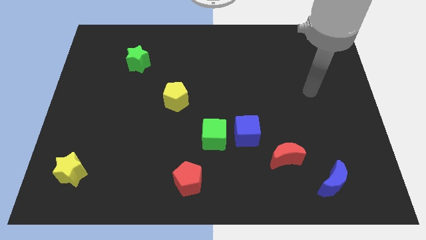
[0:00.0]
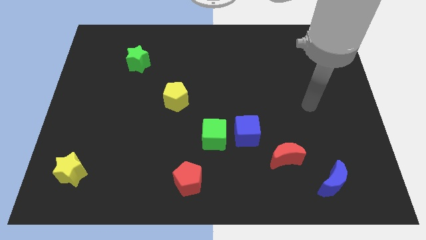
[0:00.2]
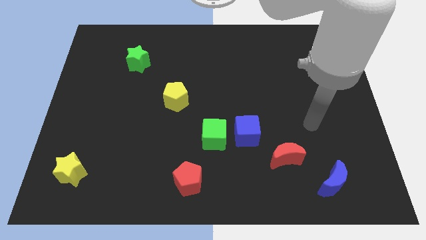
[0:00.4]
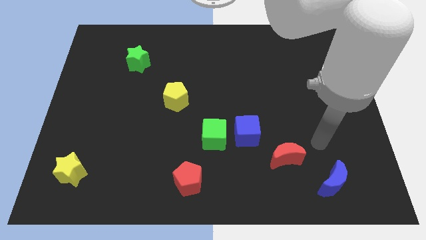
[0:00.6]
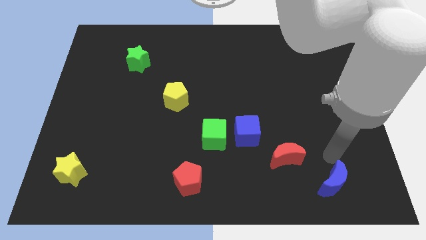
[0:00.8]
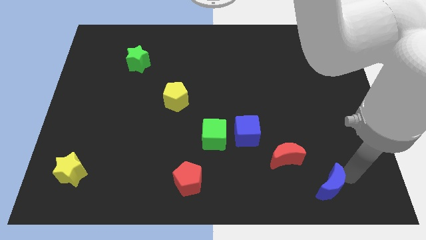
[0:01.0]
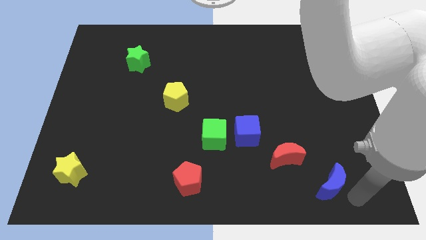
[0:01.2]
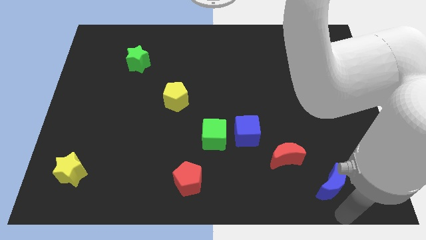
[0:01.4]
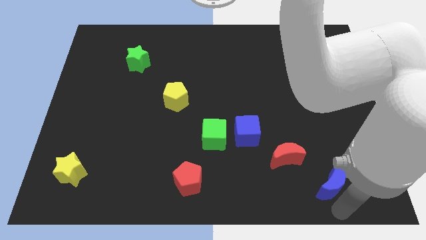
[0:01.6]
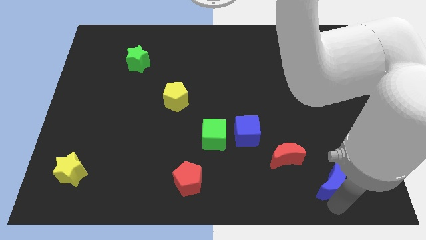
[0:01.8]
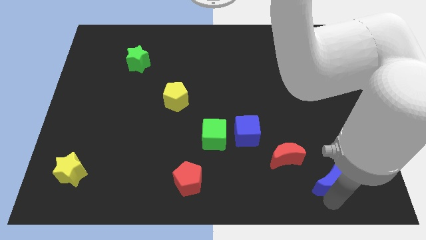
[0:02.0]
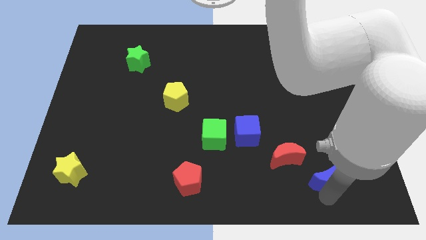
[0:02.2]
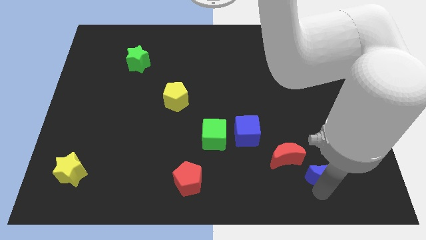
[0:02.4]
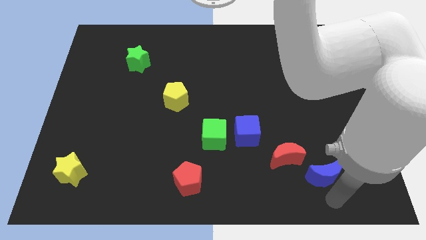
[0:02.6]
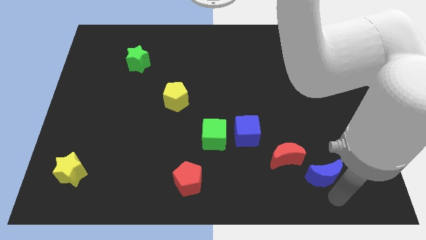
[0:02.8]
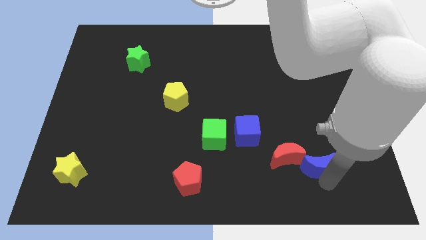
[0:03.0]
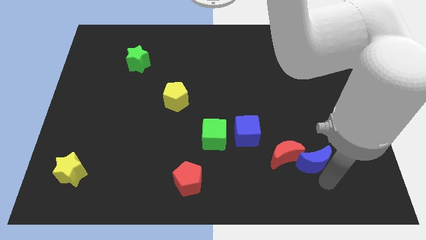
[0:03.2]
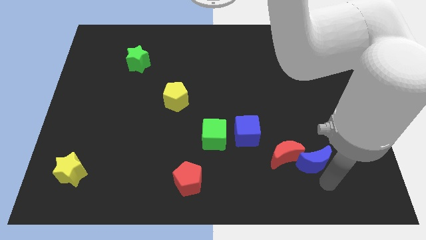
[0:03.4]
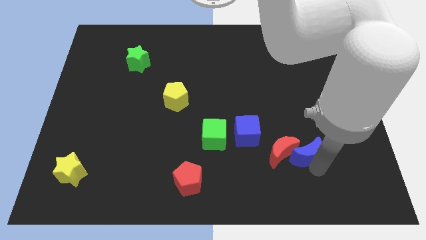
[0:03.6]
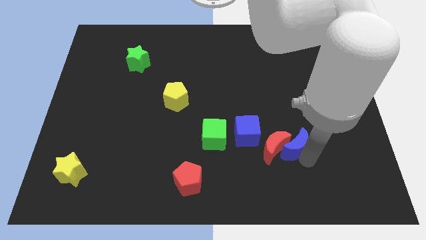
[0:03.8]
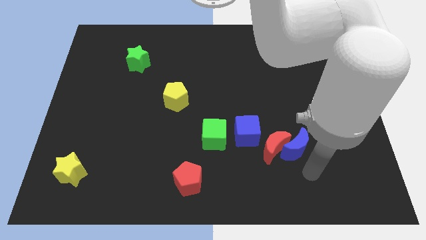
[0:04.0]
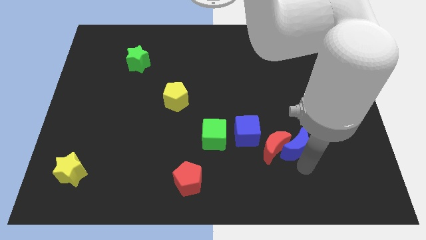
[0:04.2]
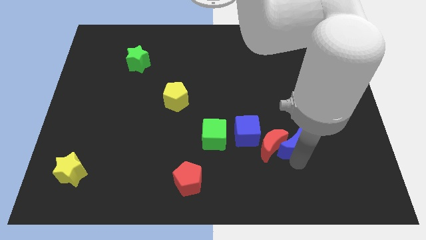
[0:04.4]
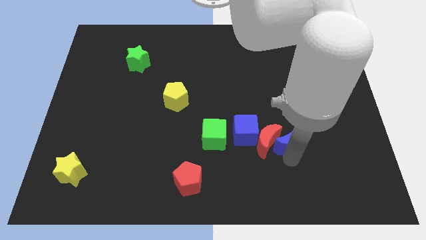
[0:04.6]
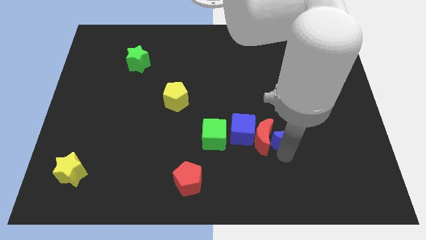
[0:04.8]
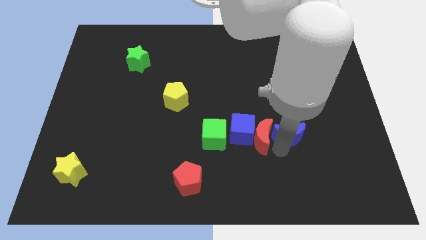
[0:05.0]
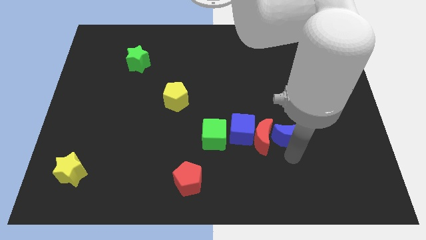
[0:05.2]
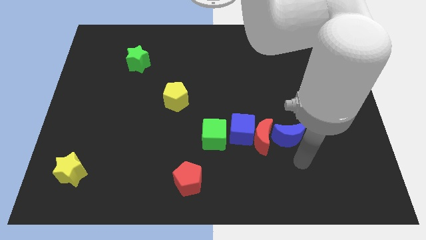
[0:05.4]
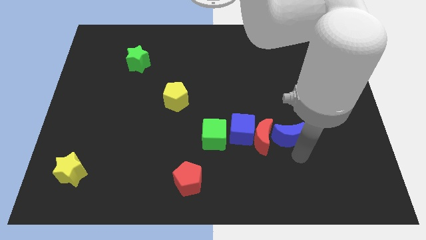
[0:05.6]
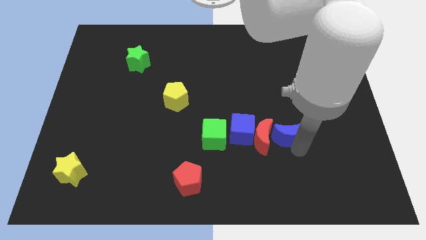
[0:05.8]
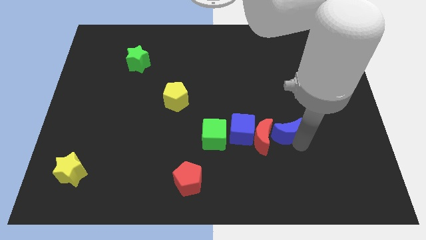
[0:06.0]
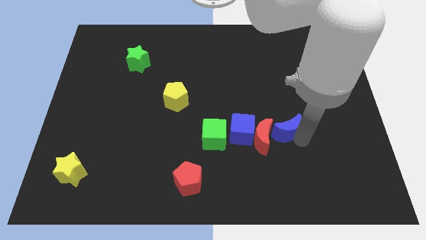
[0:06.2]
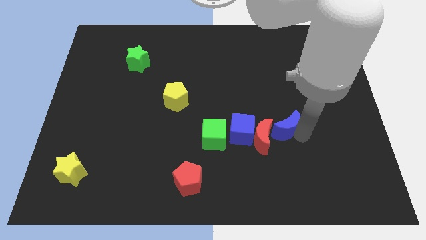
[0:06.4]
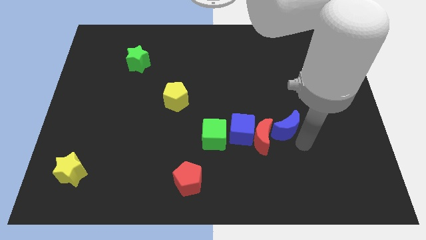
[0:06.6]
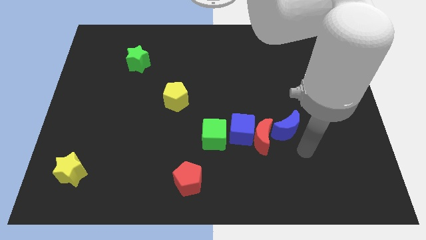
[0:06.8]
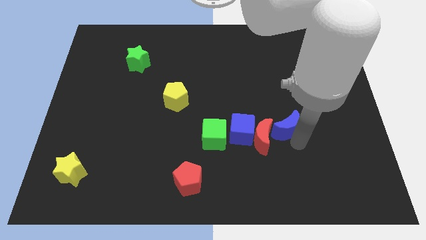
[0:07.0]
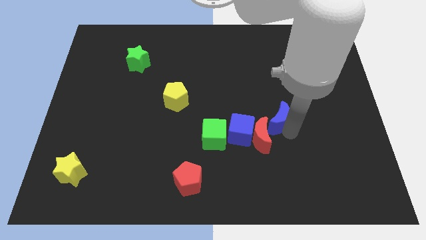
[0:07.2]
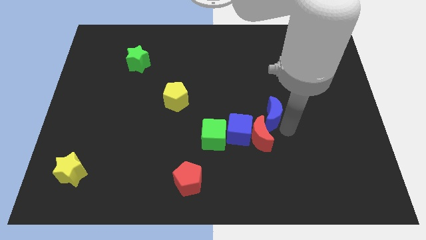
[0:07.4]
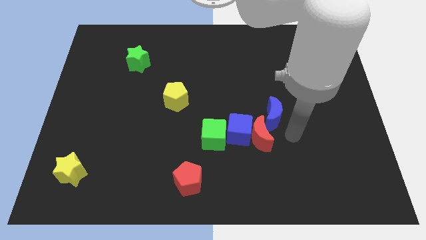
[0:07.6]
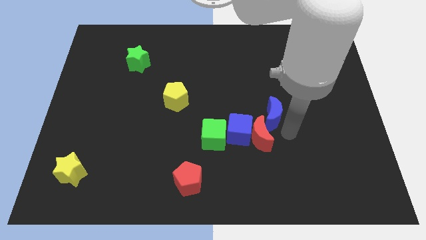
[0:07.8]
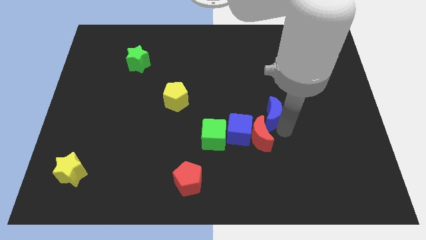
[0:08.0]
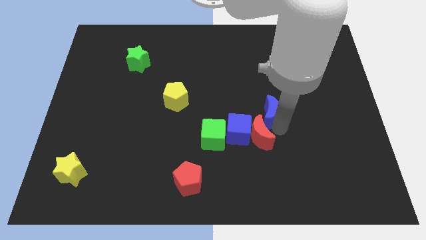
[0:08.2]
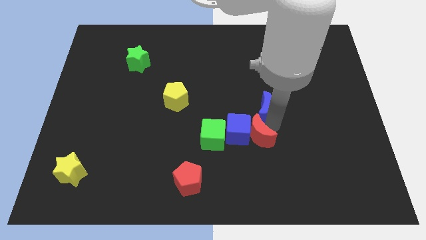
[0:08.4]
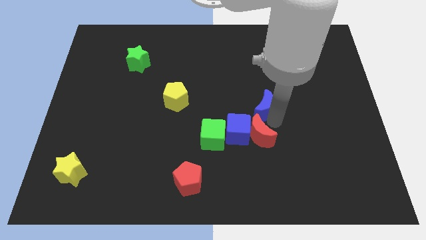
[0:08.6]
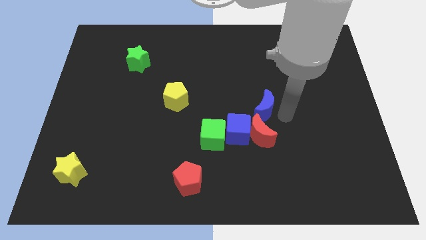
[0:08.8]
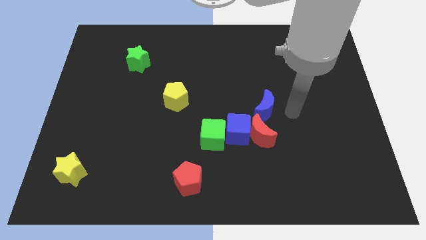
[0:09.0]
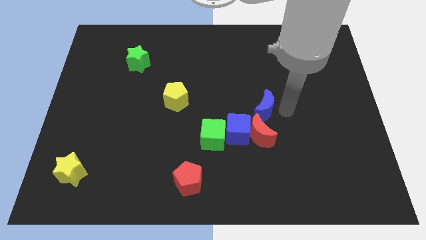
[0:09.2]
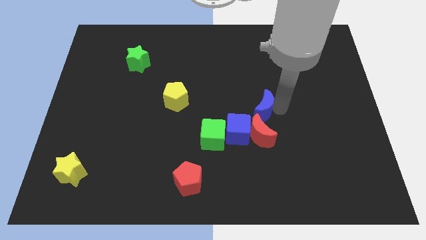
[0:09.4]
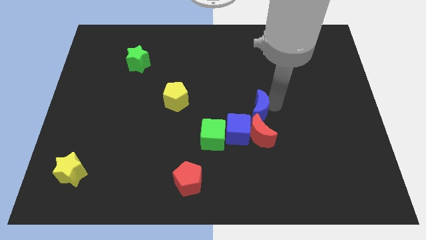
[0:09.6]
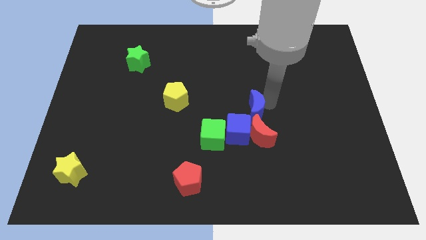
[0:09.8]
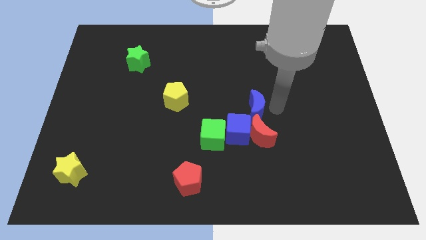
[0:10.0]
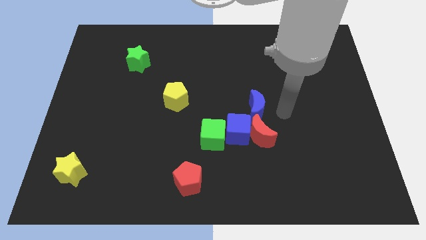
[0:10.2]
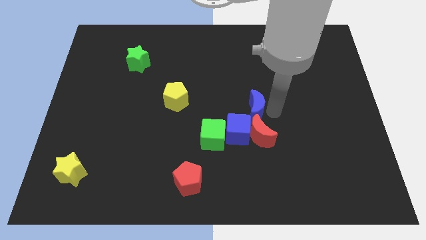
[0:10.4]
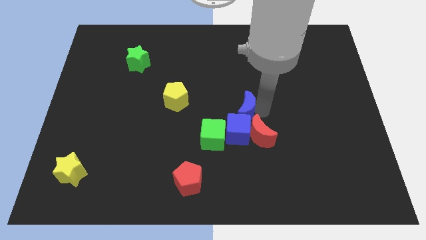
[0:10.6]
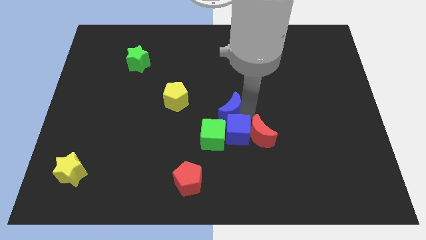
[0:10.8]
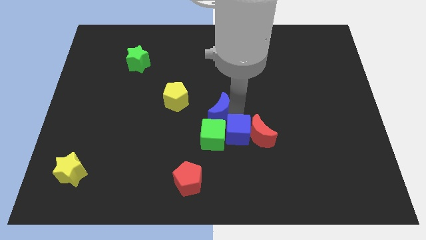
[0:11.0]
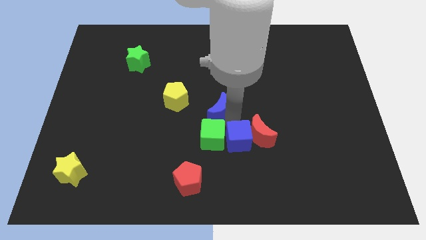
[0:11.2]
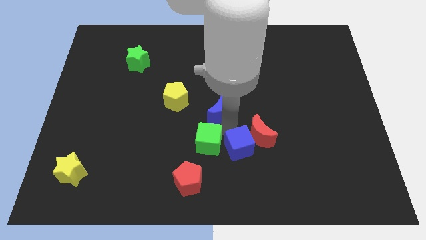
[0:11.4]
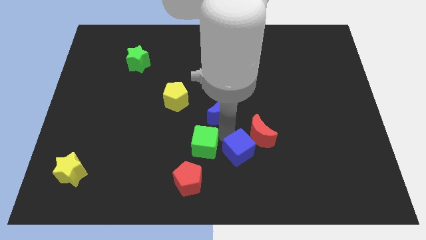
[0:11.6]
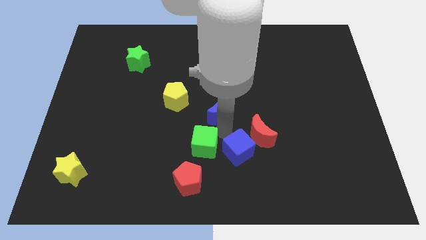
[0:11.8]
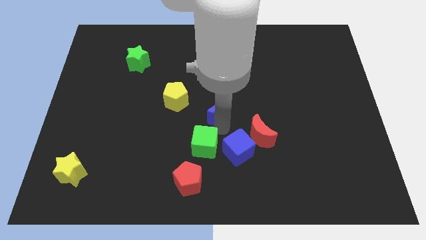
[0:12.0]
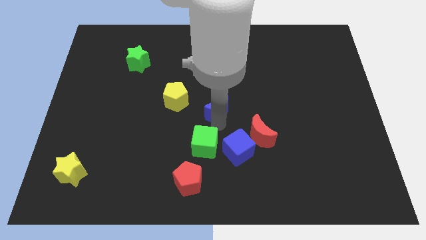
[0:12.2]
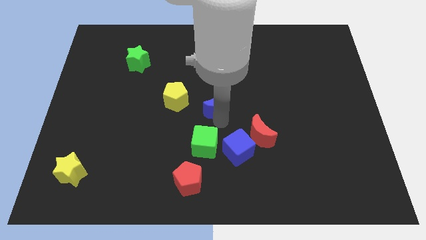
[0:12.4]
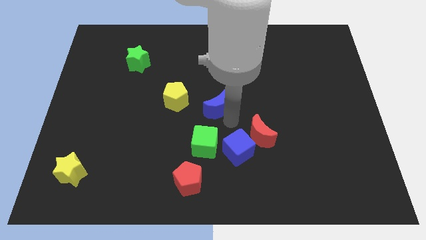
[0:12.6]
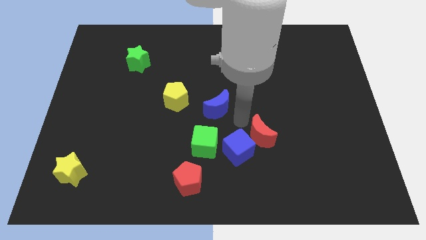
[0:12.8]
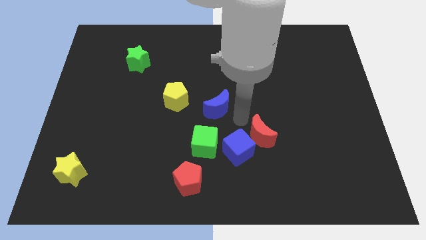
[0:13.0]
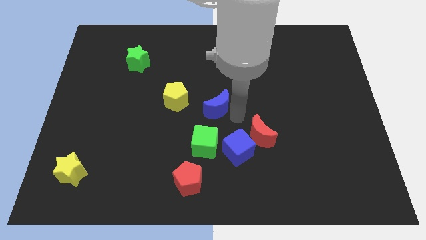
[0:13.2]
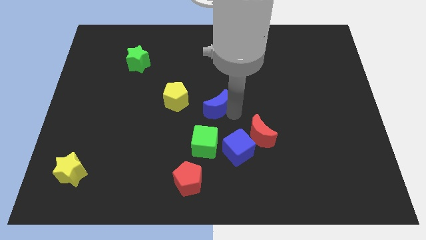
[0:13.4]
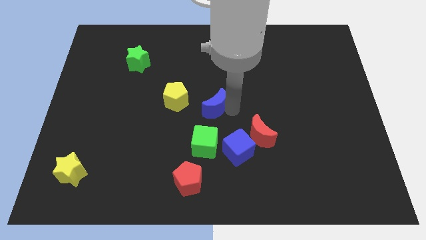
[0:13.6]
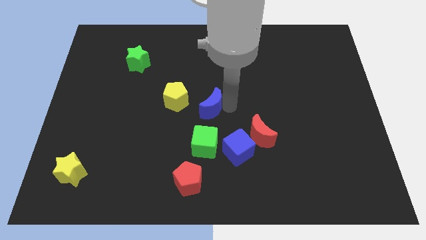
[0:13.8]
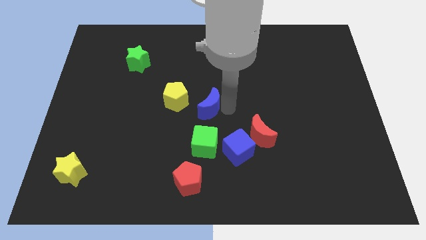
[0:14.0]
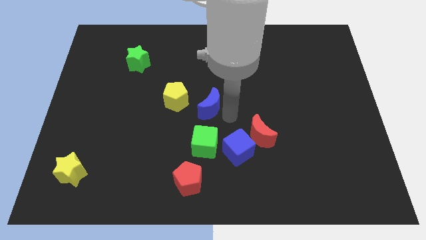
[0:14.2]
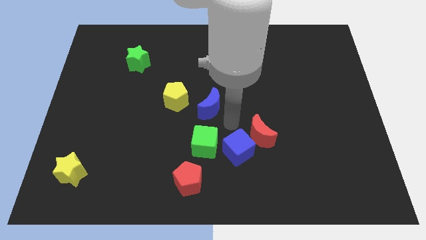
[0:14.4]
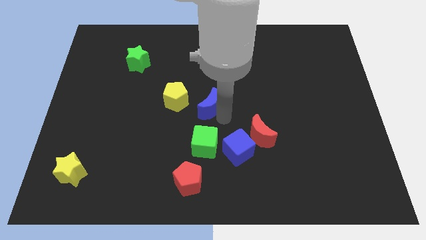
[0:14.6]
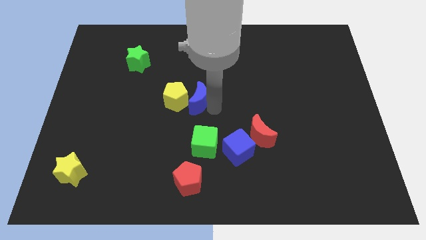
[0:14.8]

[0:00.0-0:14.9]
push the blue moon next to the yellow pentagon

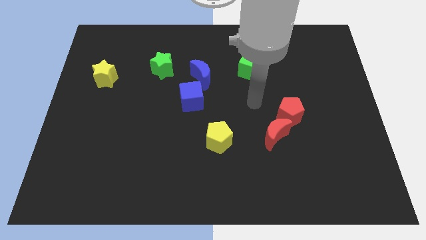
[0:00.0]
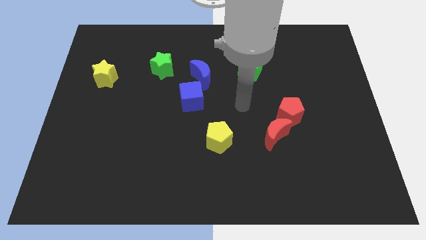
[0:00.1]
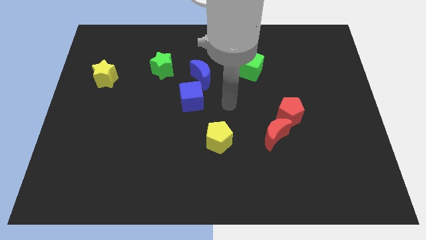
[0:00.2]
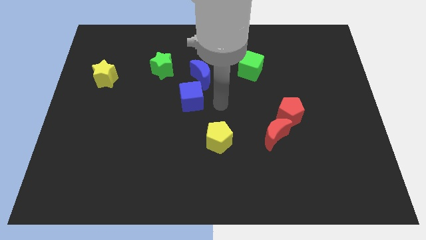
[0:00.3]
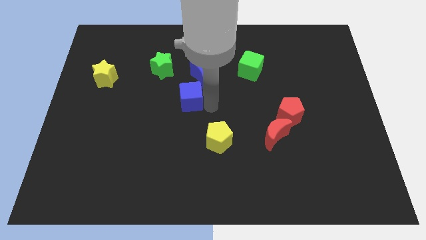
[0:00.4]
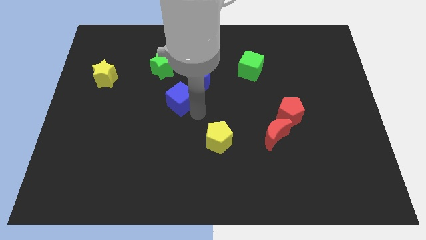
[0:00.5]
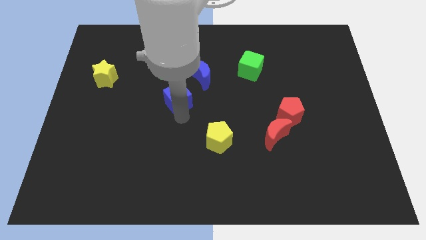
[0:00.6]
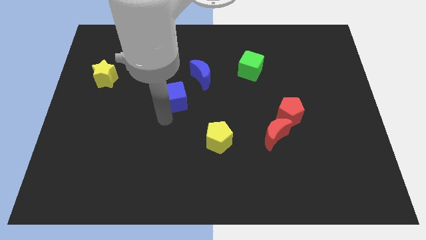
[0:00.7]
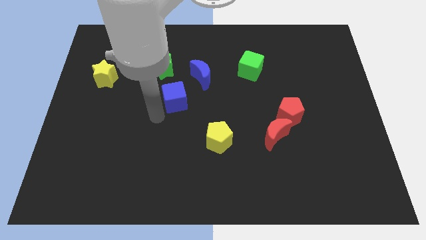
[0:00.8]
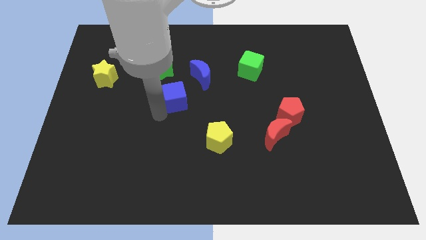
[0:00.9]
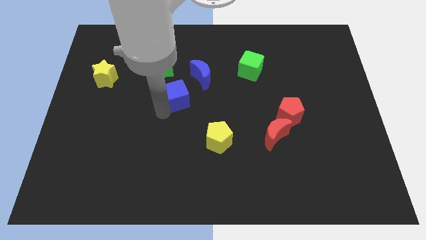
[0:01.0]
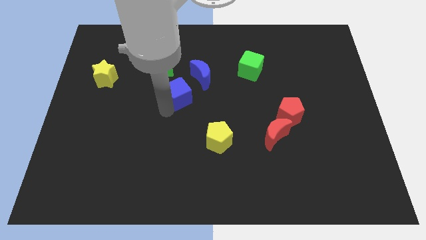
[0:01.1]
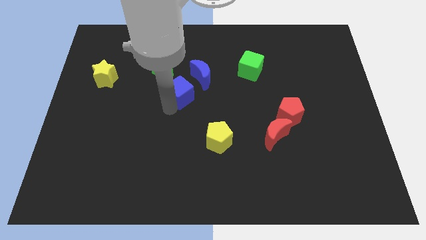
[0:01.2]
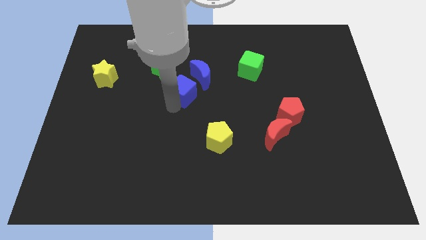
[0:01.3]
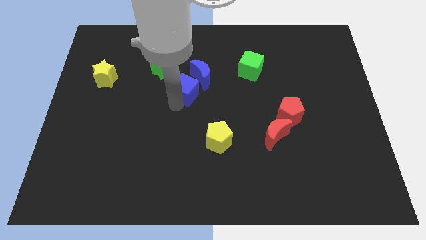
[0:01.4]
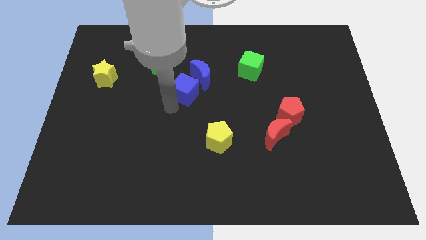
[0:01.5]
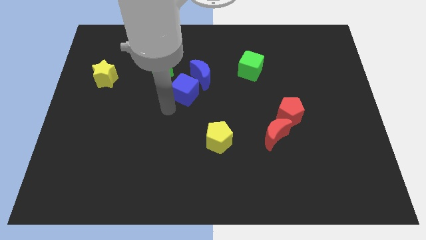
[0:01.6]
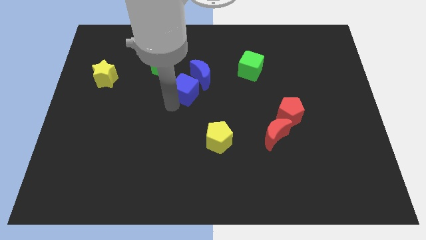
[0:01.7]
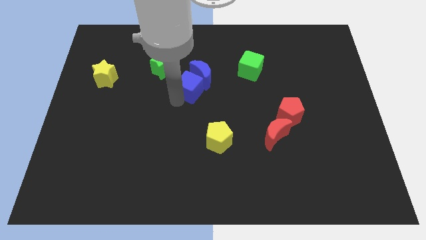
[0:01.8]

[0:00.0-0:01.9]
put the blue cube to the blue moon
